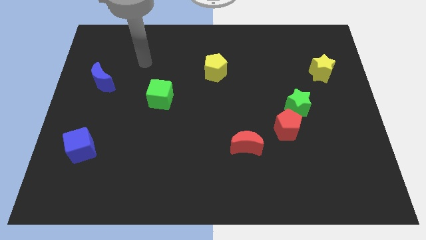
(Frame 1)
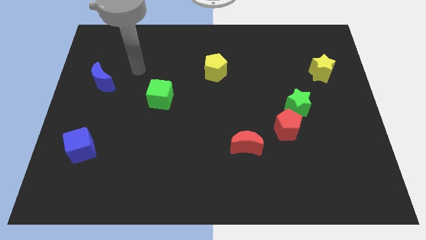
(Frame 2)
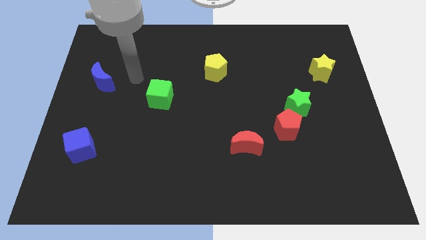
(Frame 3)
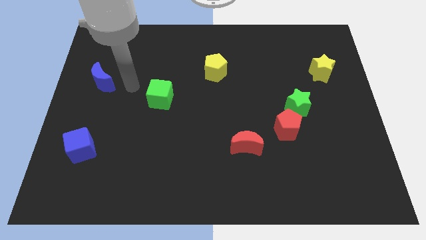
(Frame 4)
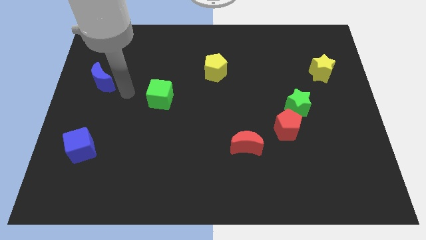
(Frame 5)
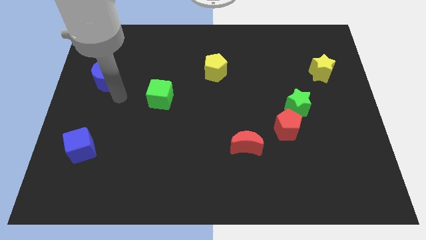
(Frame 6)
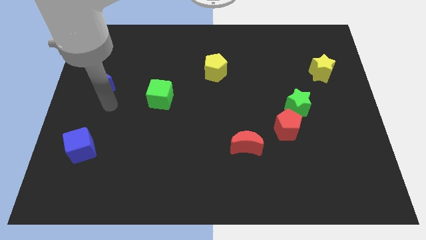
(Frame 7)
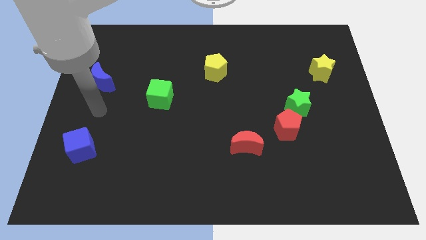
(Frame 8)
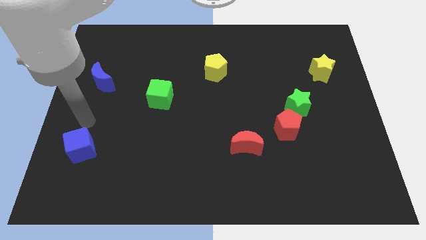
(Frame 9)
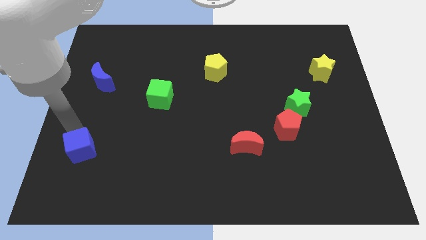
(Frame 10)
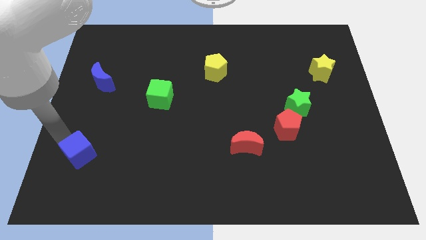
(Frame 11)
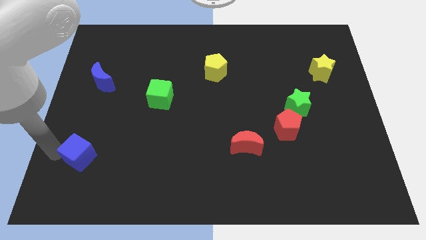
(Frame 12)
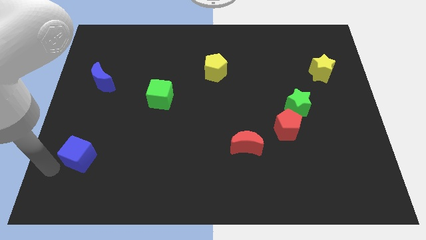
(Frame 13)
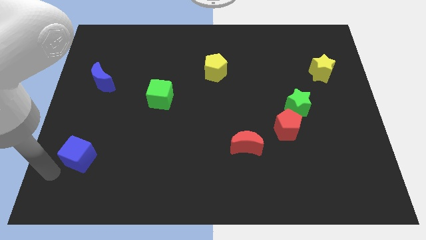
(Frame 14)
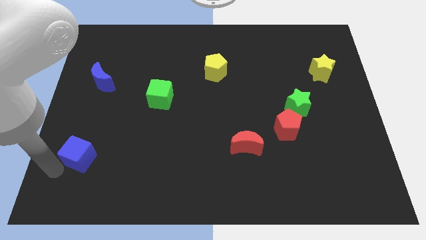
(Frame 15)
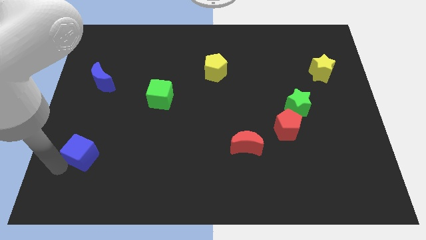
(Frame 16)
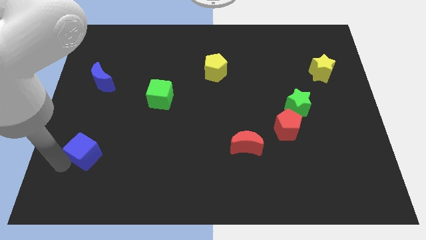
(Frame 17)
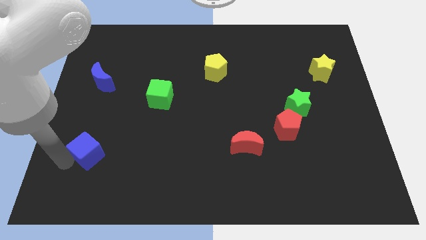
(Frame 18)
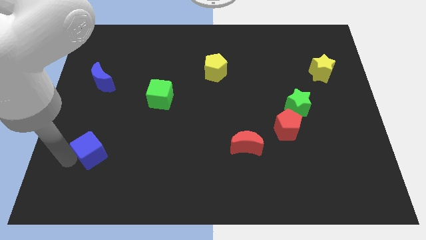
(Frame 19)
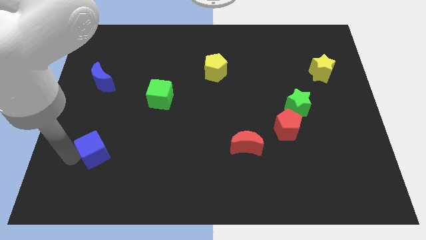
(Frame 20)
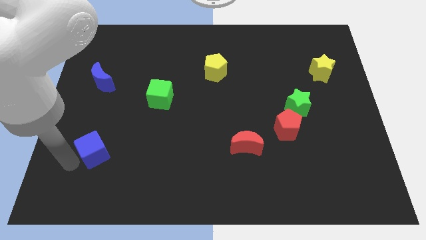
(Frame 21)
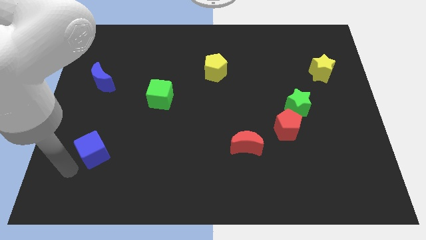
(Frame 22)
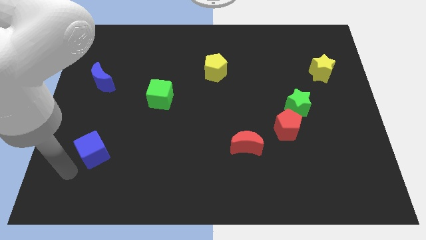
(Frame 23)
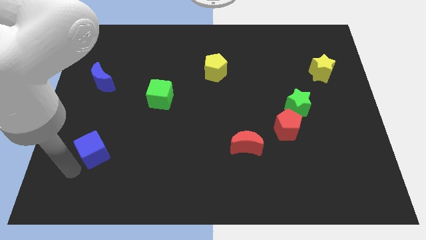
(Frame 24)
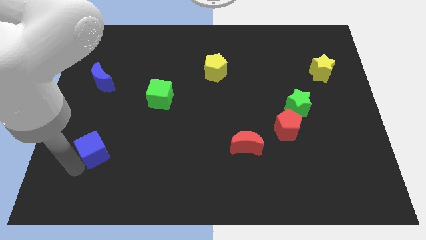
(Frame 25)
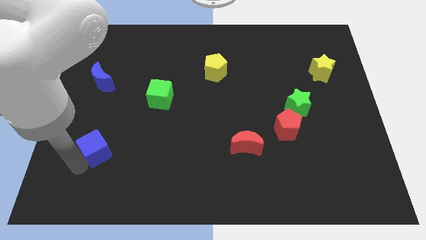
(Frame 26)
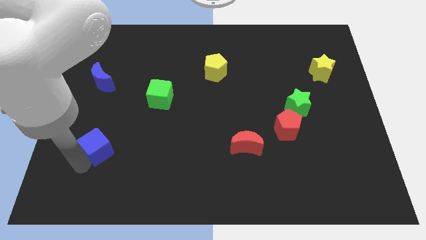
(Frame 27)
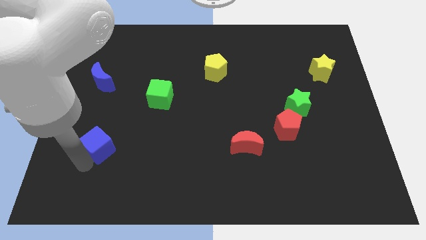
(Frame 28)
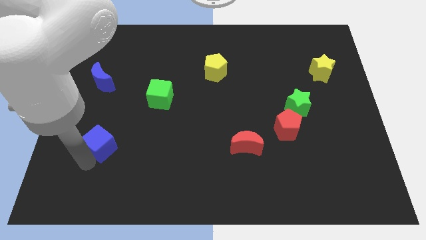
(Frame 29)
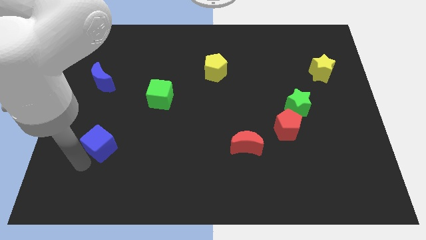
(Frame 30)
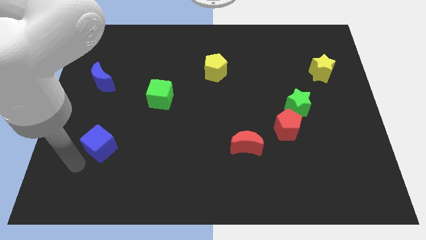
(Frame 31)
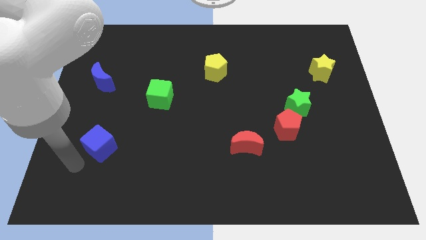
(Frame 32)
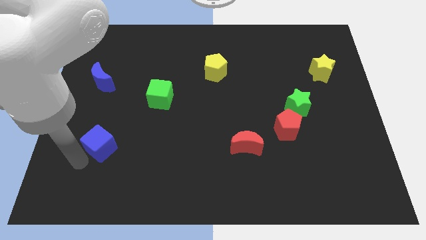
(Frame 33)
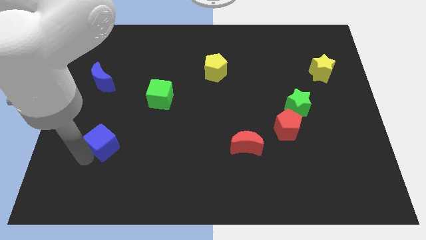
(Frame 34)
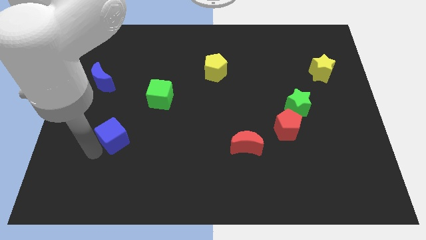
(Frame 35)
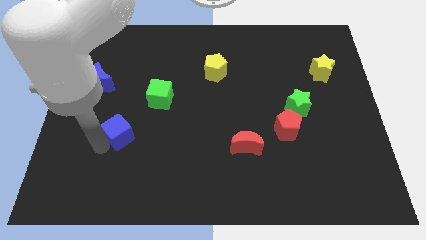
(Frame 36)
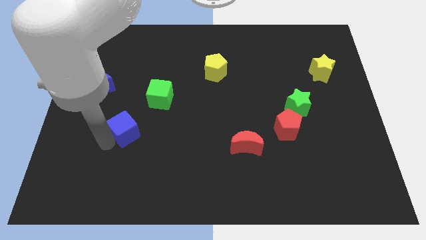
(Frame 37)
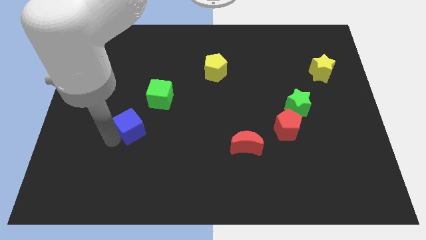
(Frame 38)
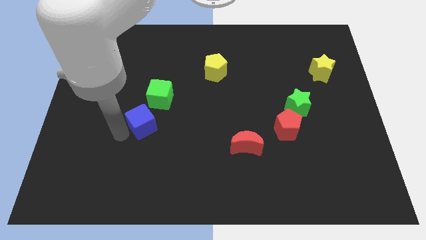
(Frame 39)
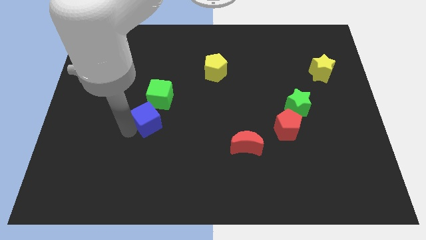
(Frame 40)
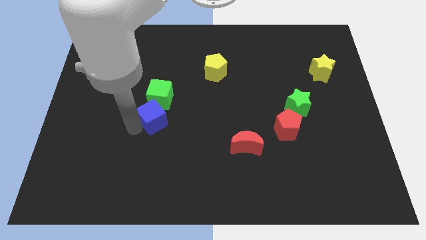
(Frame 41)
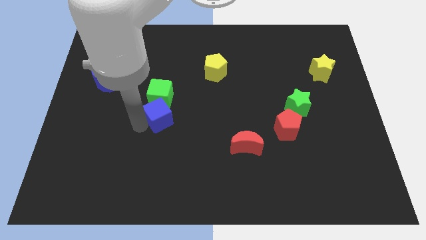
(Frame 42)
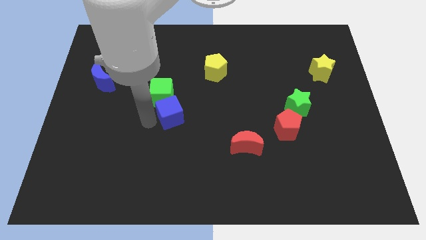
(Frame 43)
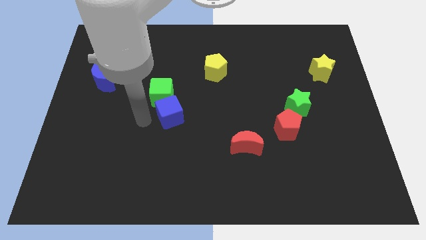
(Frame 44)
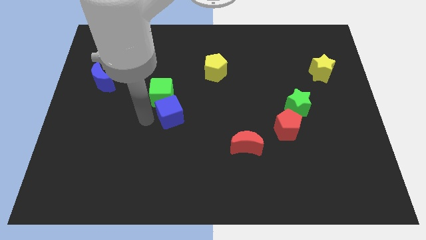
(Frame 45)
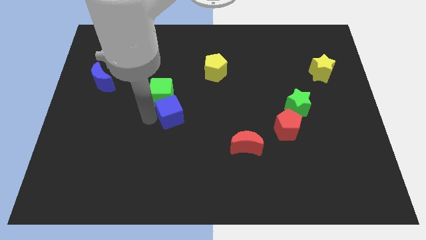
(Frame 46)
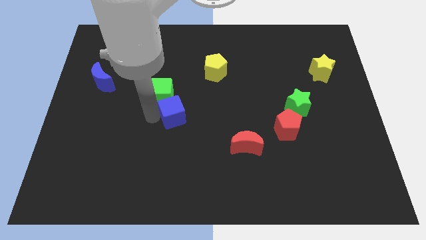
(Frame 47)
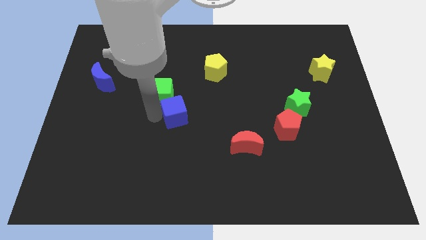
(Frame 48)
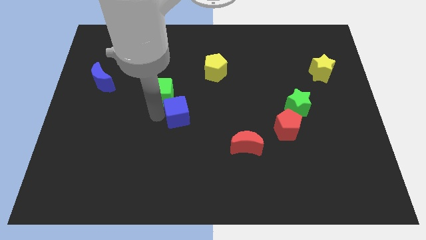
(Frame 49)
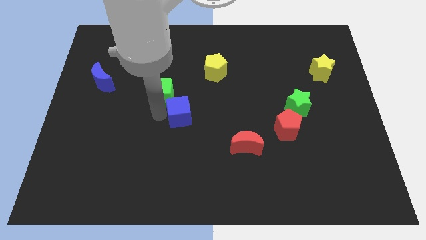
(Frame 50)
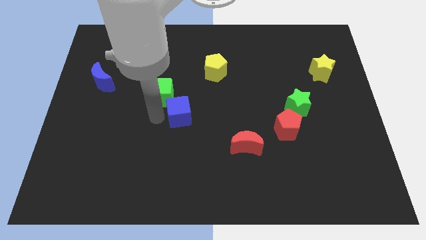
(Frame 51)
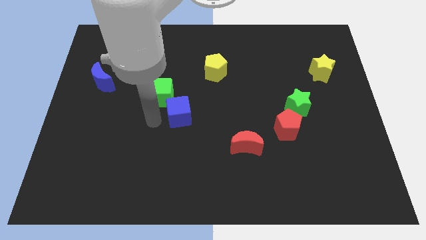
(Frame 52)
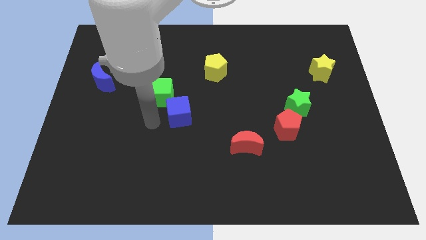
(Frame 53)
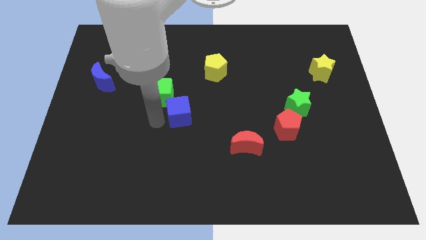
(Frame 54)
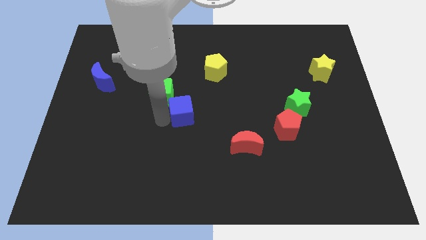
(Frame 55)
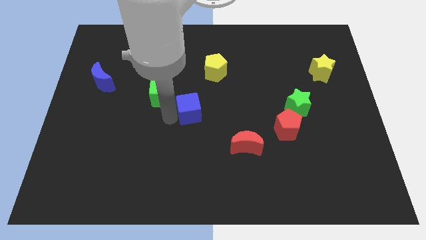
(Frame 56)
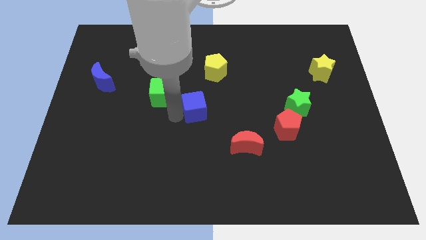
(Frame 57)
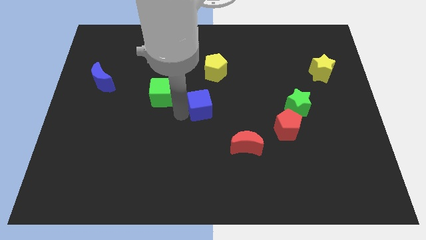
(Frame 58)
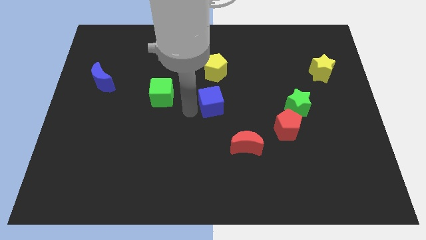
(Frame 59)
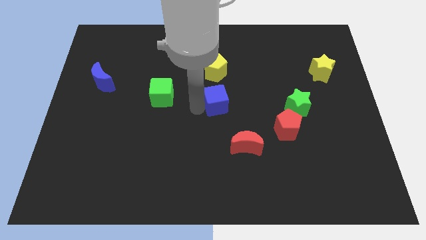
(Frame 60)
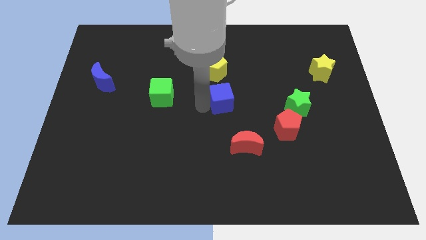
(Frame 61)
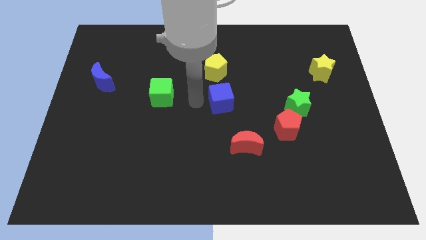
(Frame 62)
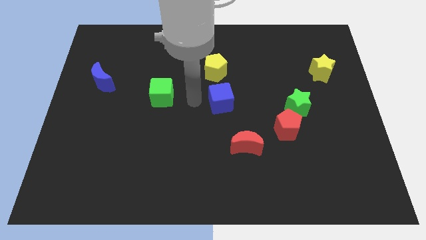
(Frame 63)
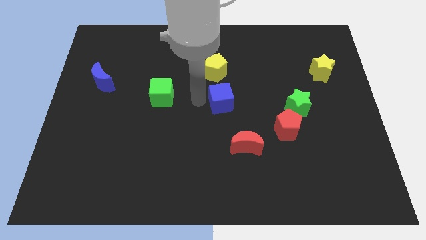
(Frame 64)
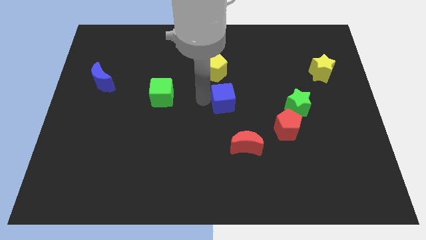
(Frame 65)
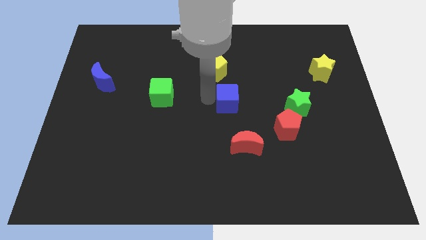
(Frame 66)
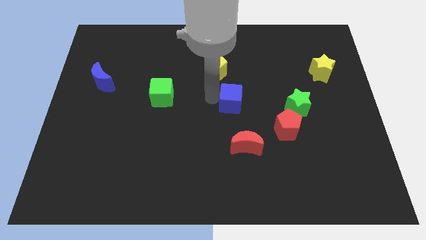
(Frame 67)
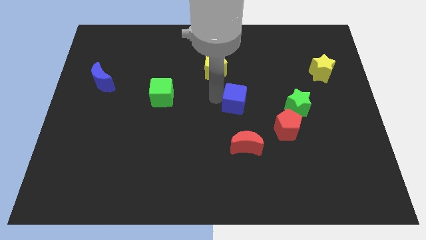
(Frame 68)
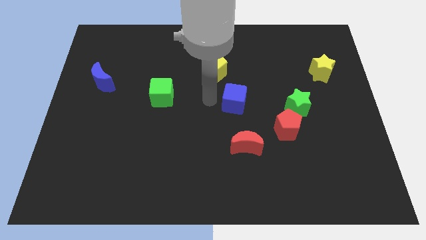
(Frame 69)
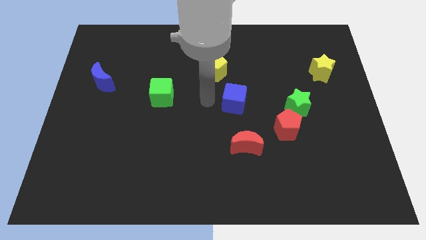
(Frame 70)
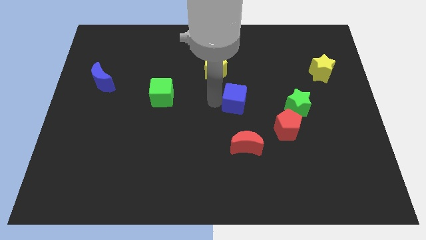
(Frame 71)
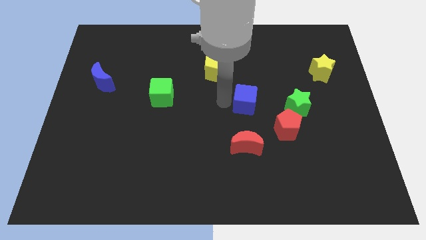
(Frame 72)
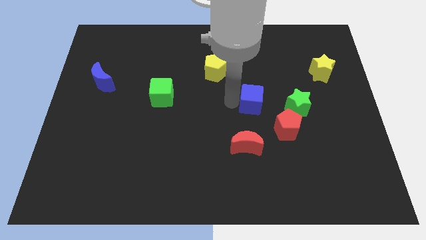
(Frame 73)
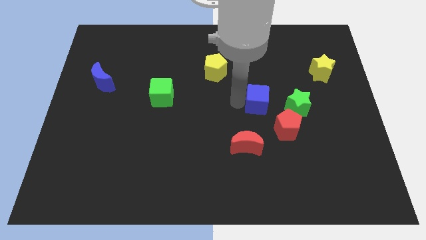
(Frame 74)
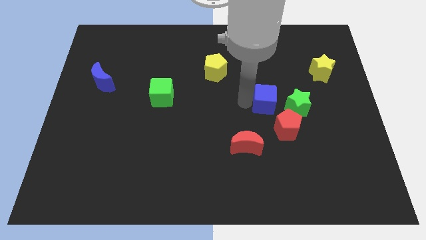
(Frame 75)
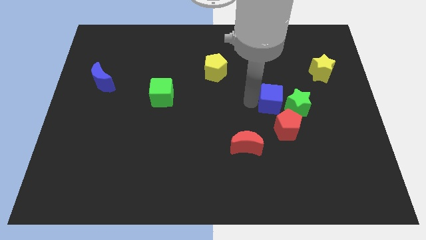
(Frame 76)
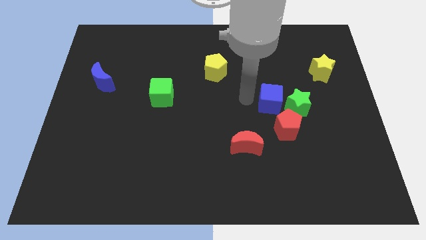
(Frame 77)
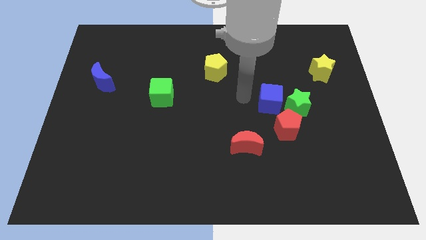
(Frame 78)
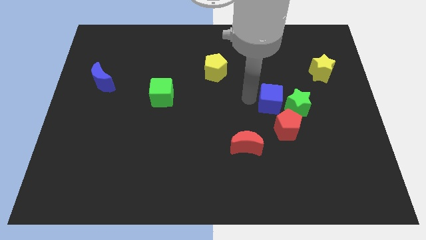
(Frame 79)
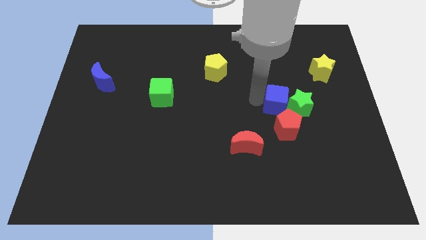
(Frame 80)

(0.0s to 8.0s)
move the blue cube towards the green star
